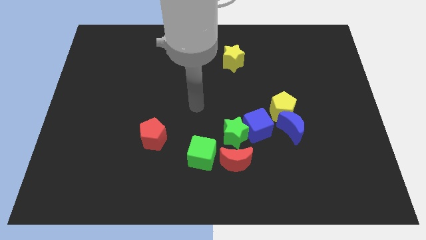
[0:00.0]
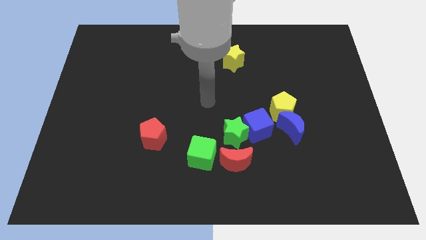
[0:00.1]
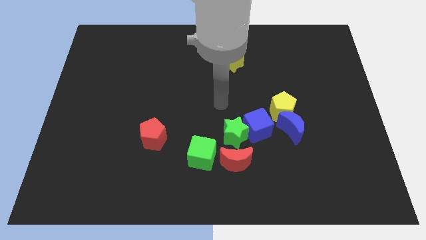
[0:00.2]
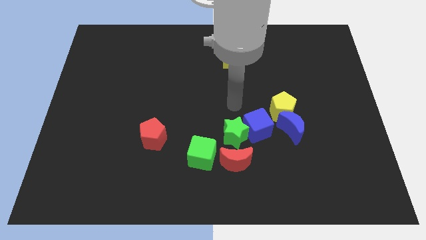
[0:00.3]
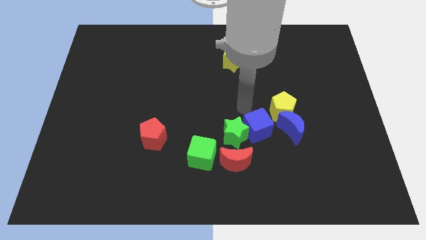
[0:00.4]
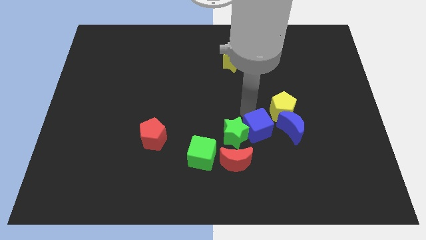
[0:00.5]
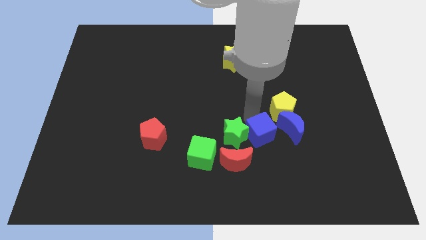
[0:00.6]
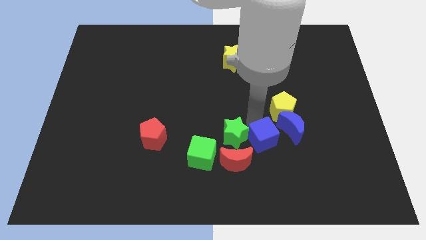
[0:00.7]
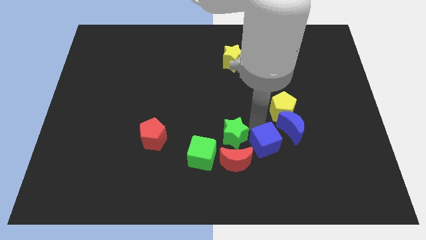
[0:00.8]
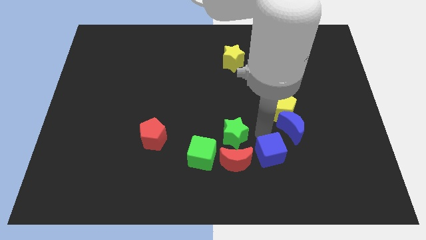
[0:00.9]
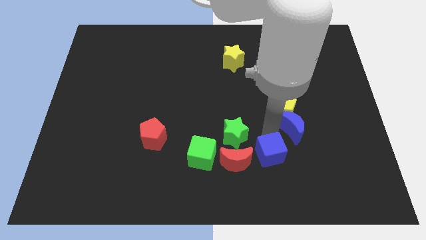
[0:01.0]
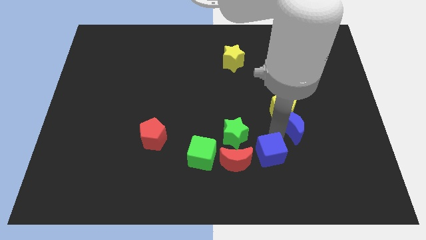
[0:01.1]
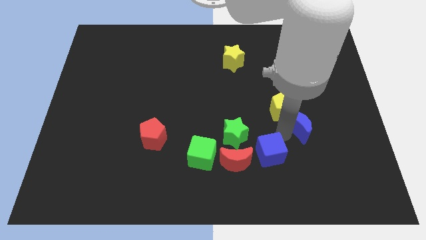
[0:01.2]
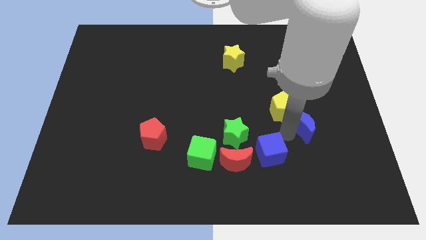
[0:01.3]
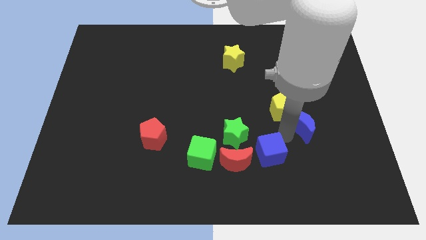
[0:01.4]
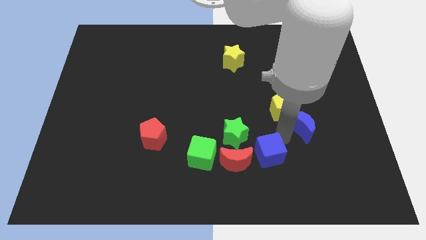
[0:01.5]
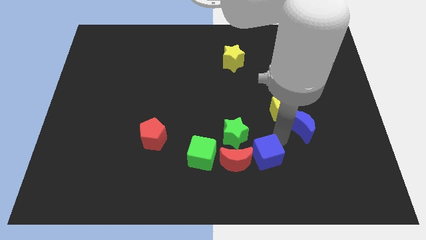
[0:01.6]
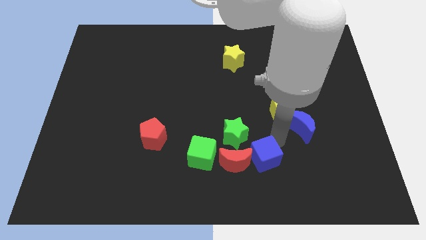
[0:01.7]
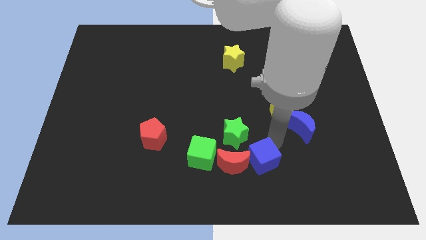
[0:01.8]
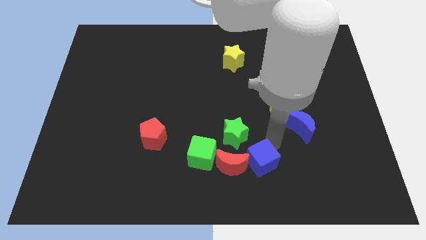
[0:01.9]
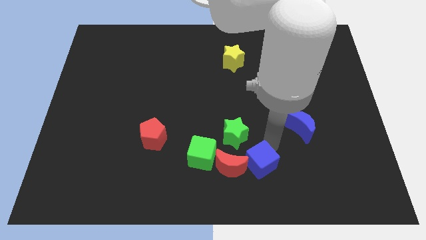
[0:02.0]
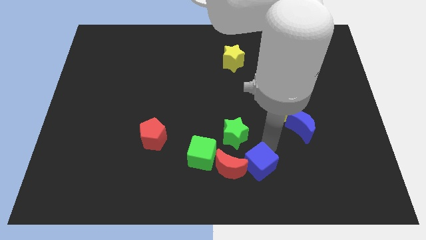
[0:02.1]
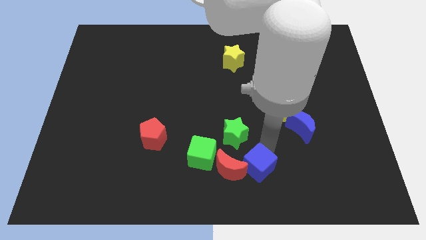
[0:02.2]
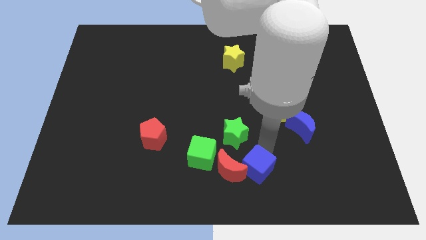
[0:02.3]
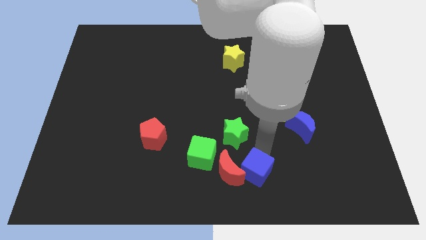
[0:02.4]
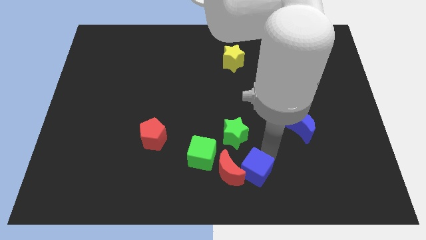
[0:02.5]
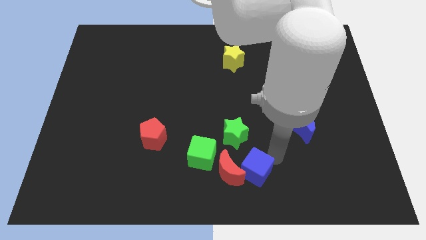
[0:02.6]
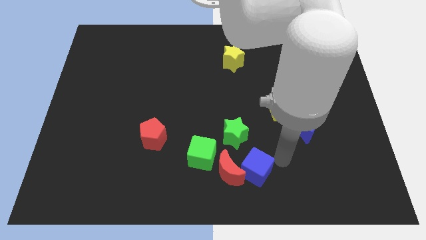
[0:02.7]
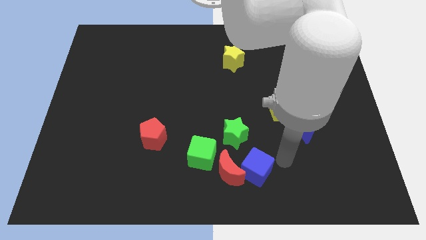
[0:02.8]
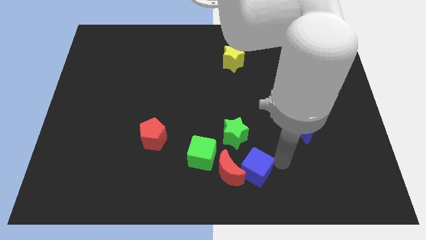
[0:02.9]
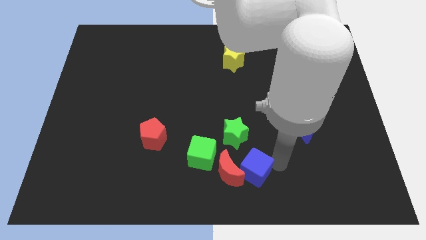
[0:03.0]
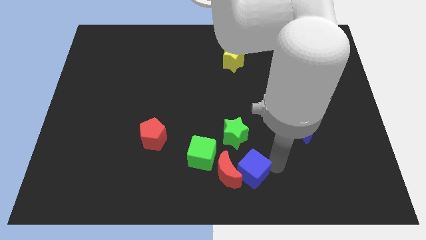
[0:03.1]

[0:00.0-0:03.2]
move the blue cube a bit downwards and left diagonally

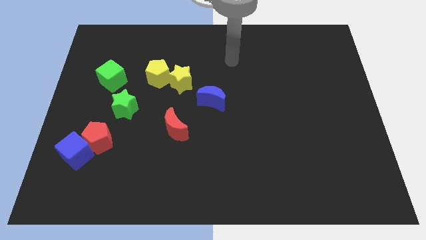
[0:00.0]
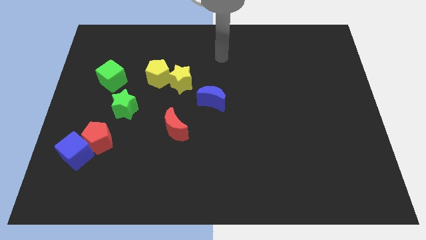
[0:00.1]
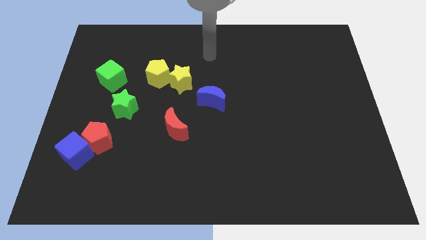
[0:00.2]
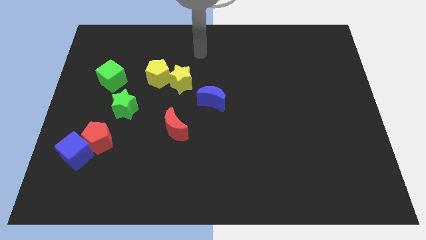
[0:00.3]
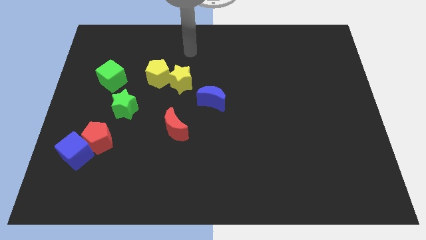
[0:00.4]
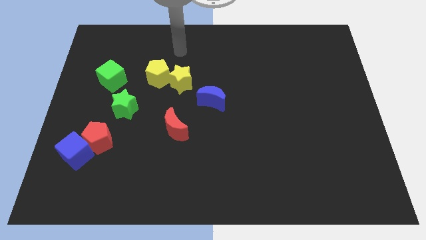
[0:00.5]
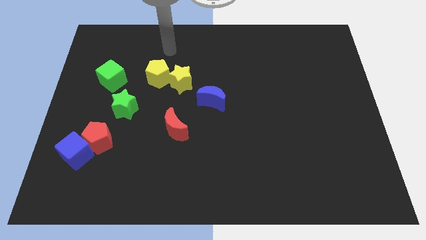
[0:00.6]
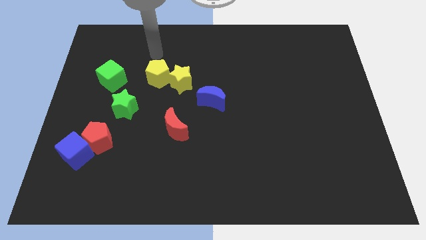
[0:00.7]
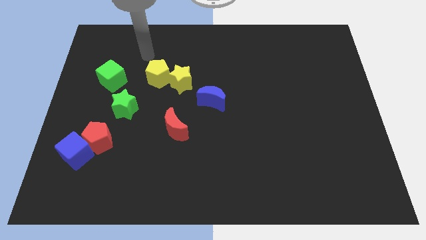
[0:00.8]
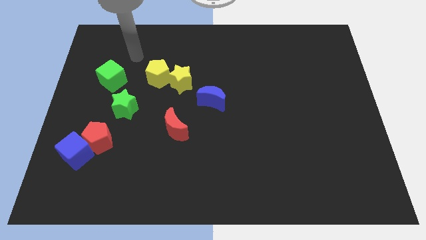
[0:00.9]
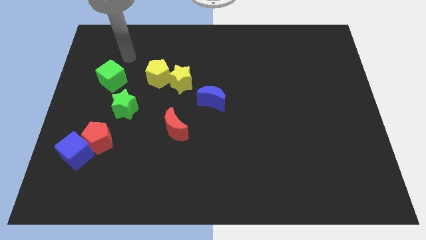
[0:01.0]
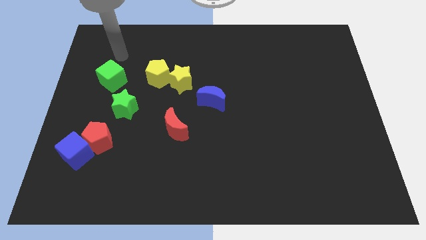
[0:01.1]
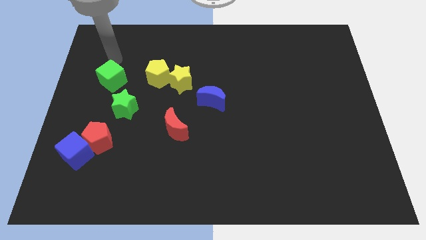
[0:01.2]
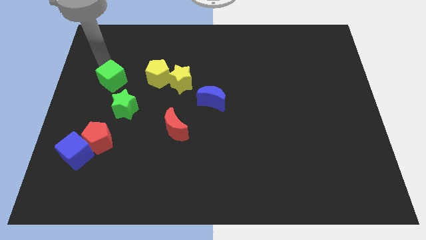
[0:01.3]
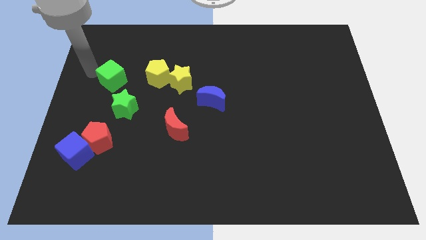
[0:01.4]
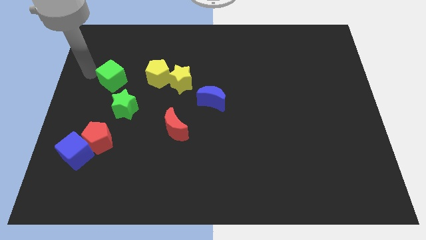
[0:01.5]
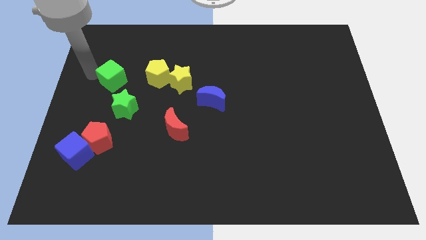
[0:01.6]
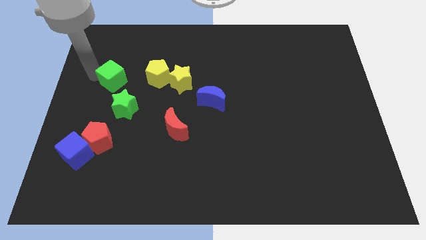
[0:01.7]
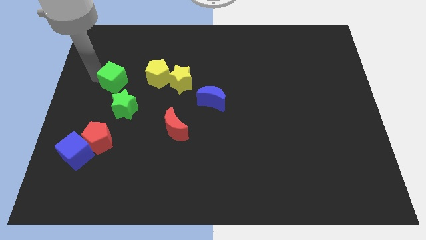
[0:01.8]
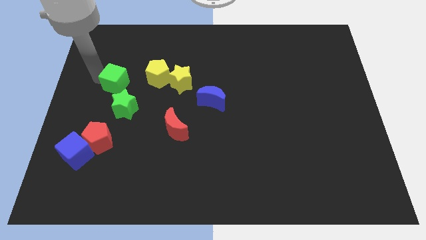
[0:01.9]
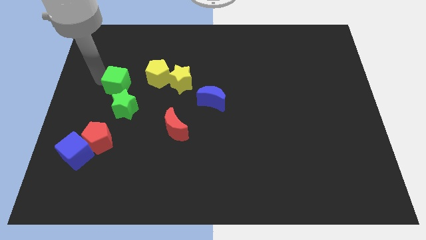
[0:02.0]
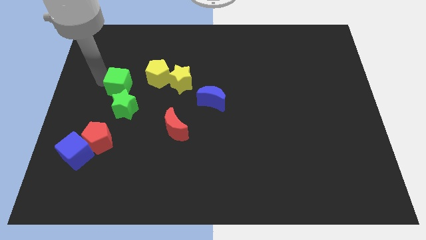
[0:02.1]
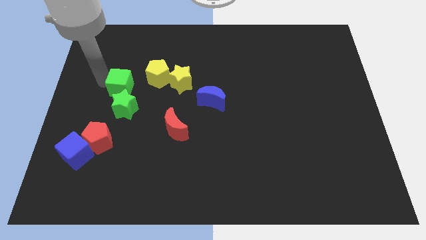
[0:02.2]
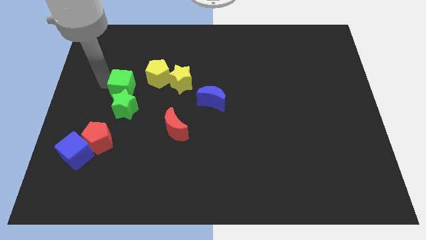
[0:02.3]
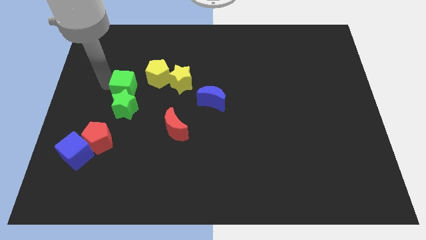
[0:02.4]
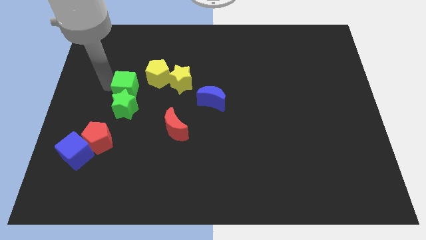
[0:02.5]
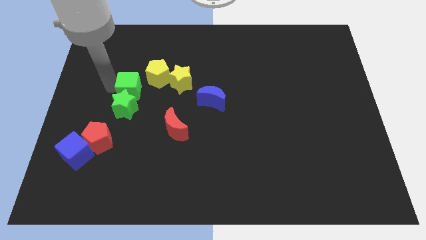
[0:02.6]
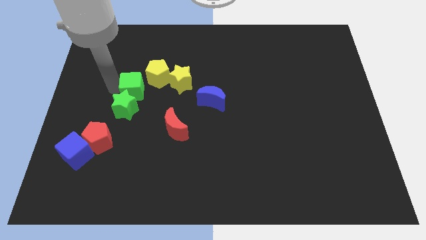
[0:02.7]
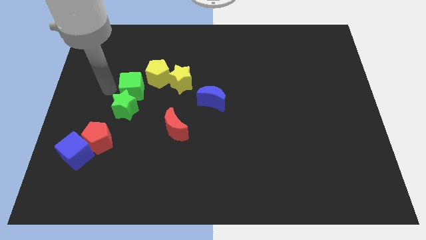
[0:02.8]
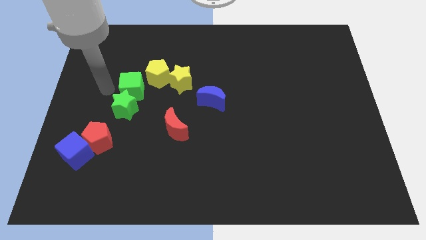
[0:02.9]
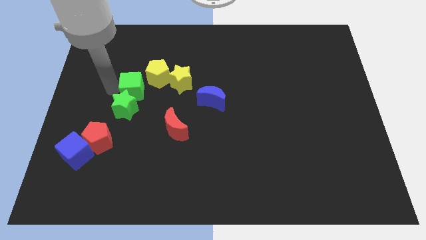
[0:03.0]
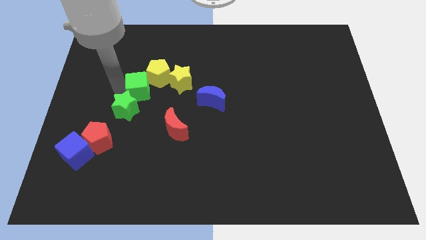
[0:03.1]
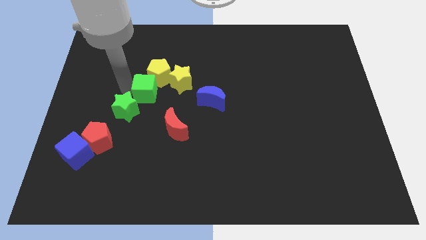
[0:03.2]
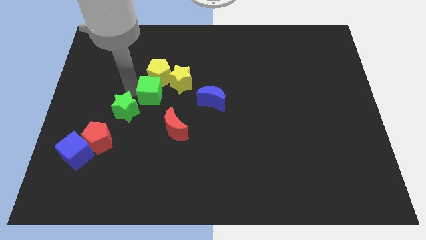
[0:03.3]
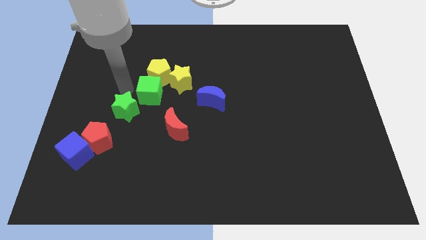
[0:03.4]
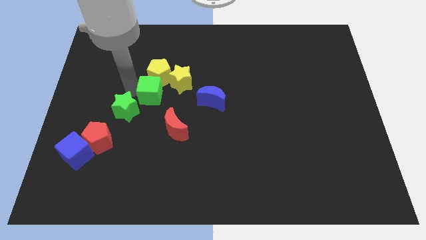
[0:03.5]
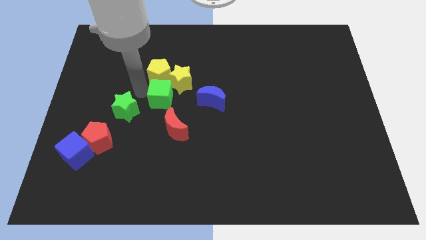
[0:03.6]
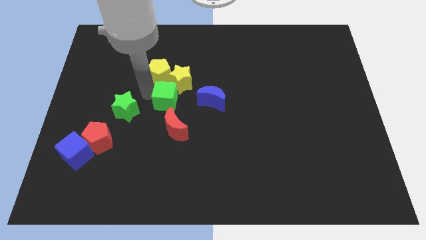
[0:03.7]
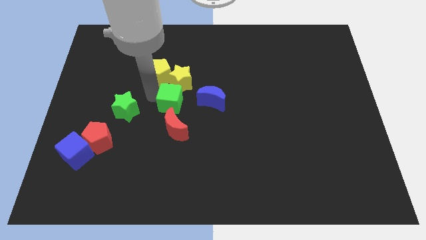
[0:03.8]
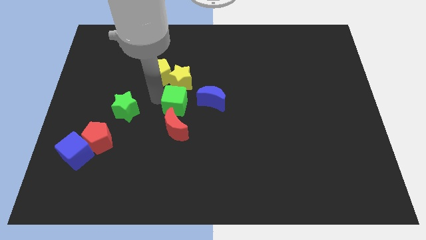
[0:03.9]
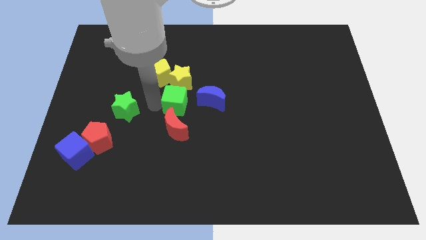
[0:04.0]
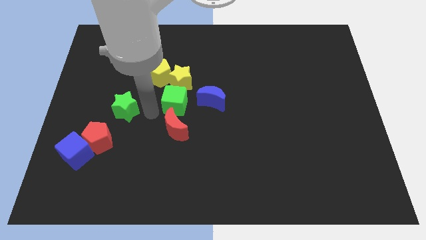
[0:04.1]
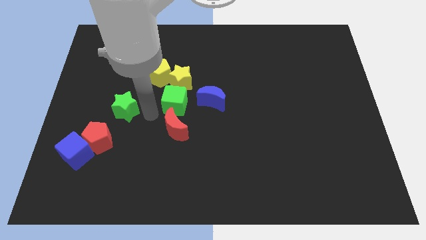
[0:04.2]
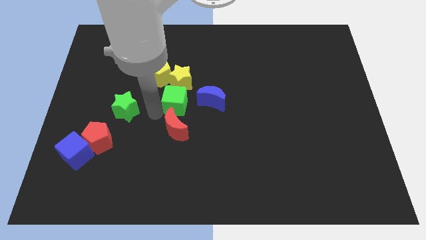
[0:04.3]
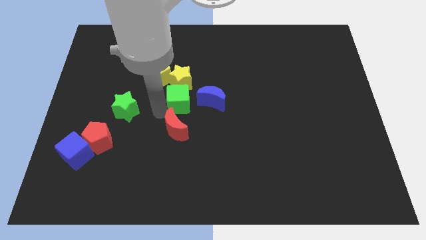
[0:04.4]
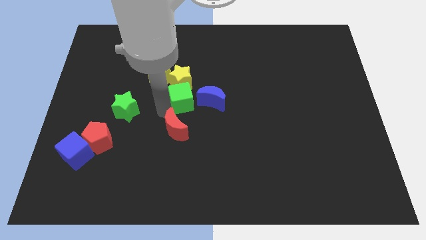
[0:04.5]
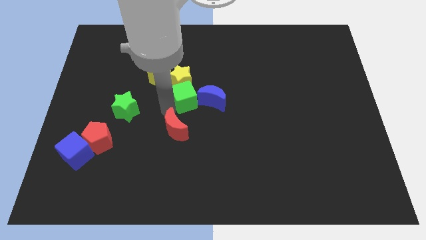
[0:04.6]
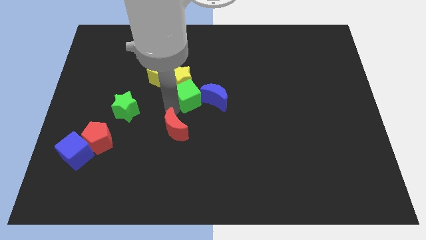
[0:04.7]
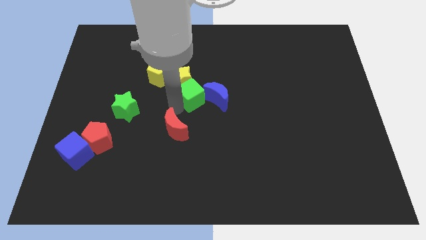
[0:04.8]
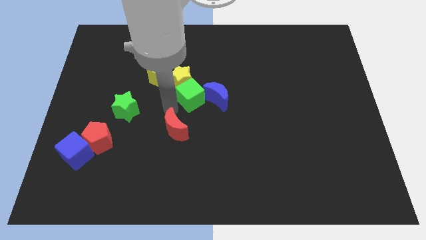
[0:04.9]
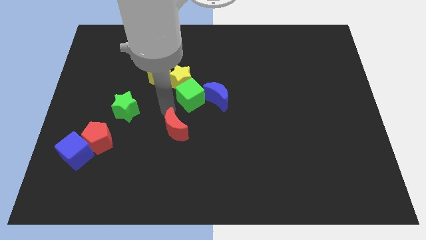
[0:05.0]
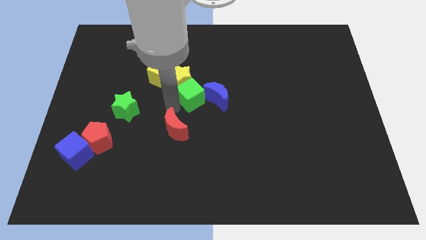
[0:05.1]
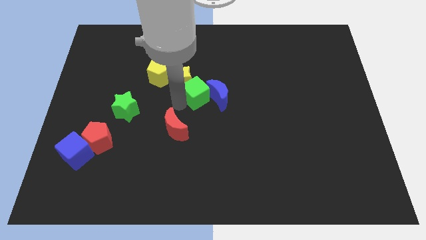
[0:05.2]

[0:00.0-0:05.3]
move the green cube right
